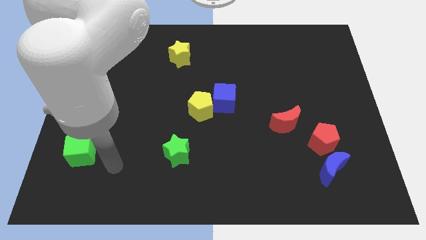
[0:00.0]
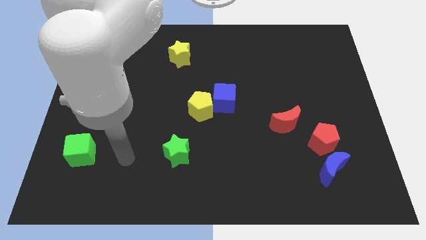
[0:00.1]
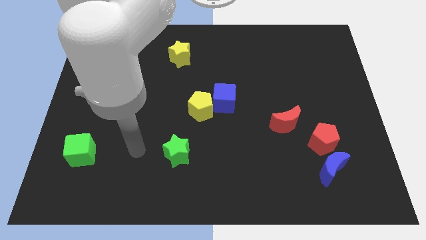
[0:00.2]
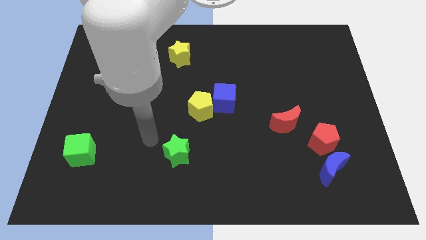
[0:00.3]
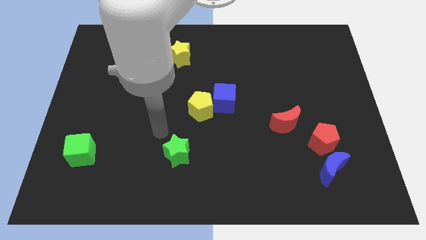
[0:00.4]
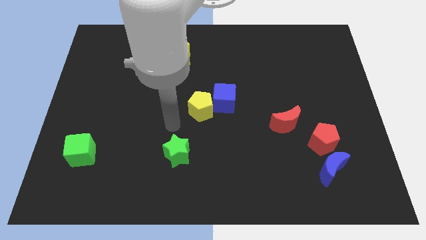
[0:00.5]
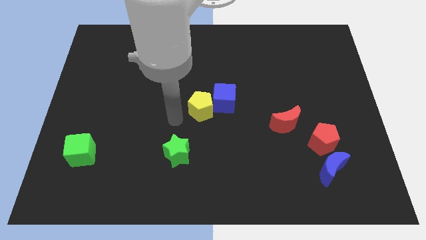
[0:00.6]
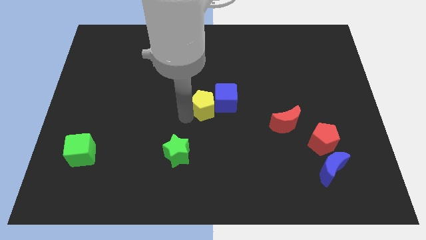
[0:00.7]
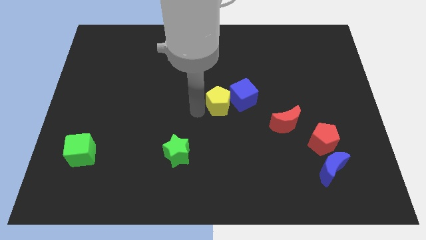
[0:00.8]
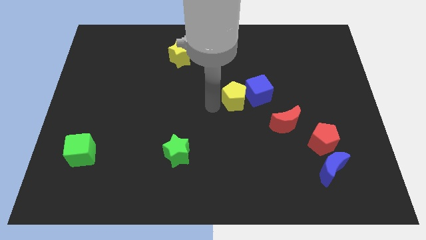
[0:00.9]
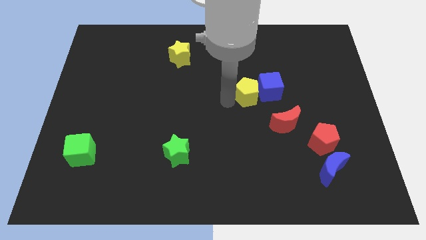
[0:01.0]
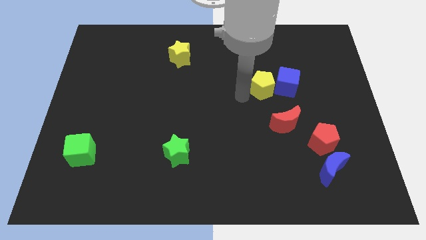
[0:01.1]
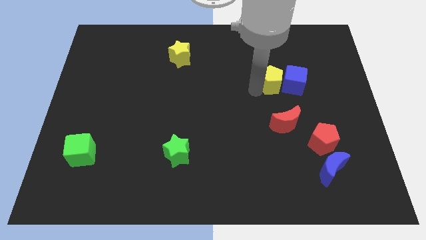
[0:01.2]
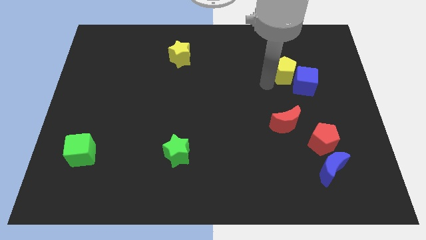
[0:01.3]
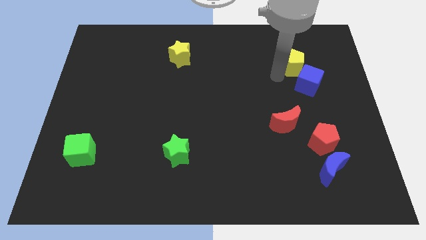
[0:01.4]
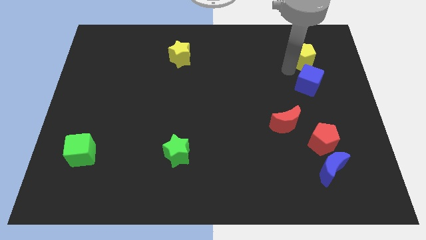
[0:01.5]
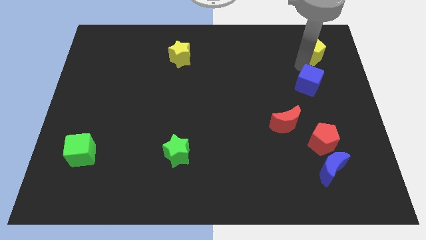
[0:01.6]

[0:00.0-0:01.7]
move the blue cube away from the yellow pentagon

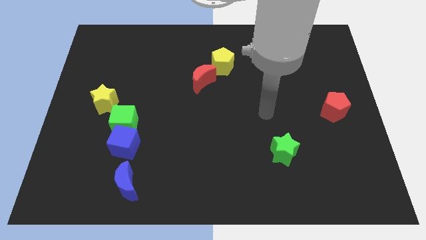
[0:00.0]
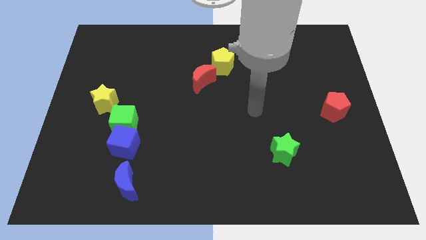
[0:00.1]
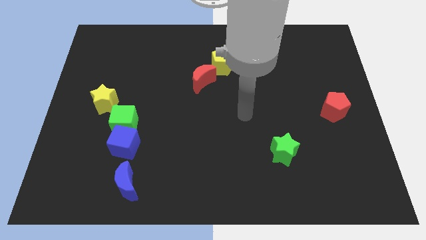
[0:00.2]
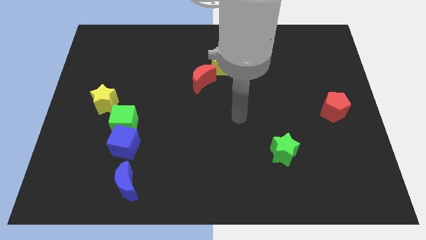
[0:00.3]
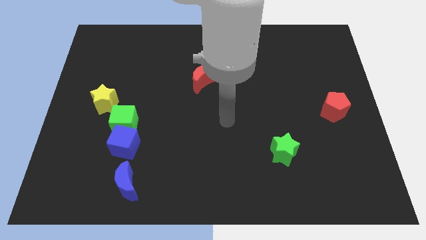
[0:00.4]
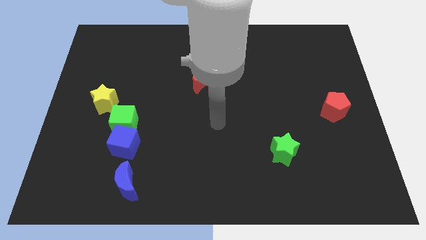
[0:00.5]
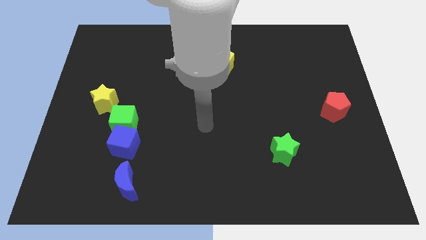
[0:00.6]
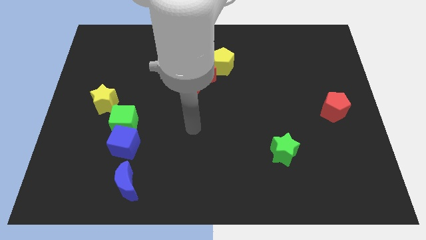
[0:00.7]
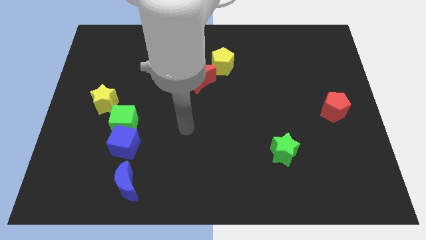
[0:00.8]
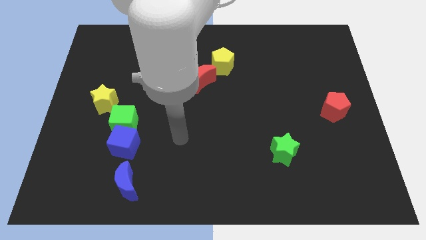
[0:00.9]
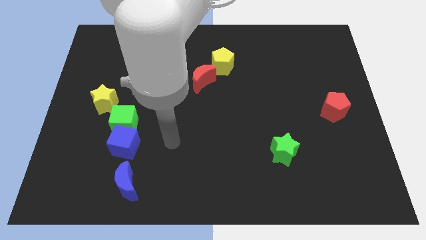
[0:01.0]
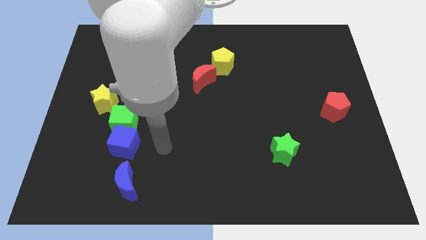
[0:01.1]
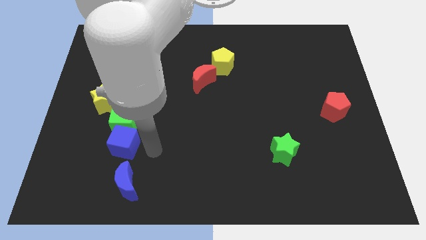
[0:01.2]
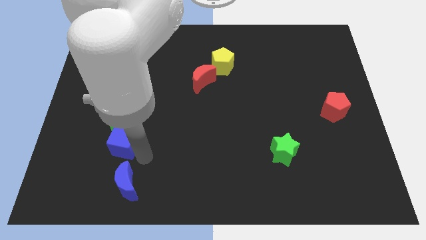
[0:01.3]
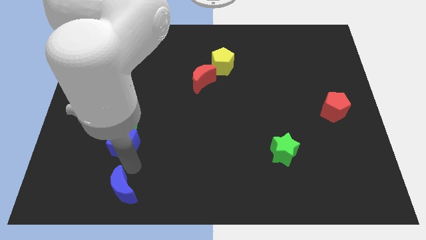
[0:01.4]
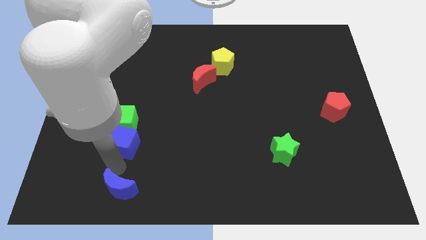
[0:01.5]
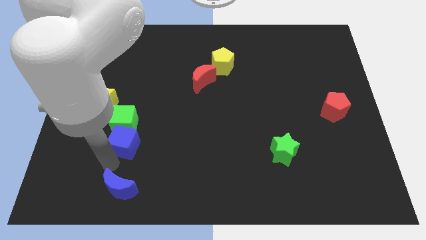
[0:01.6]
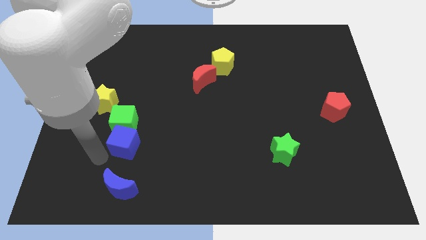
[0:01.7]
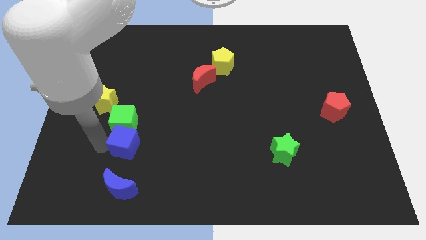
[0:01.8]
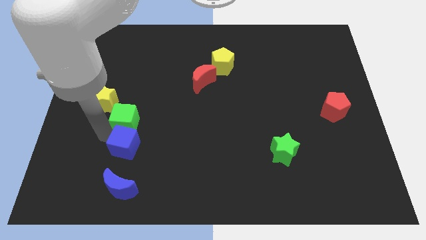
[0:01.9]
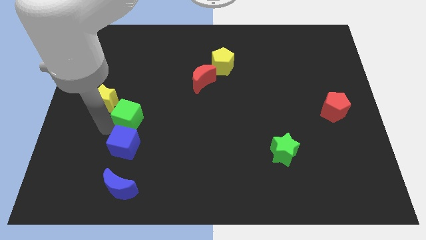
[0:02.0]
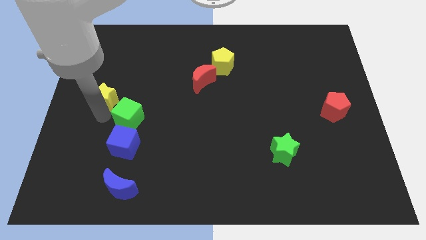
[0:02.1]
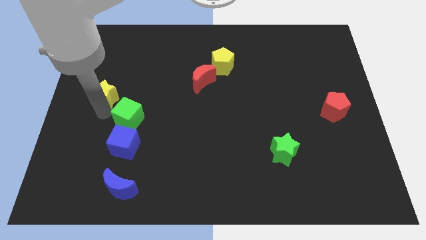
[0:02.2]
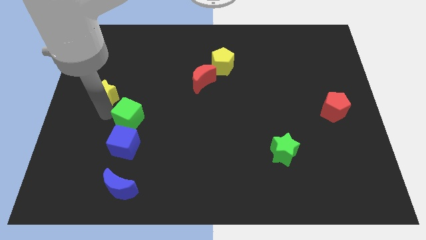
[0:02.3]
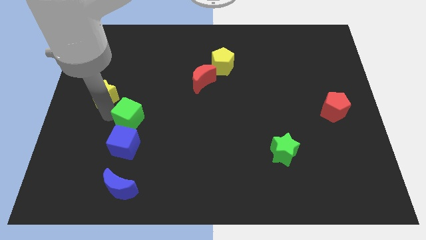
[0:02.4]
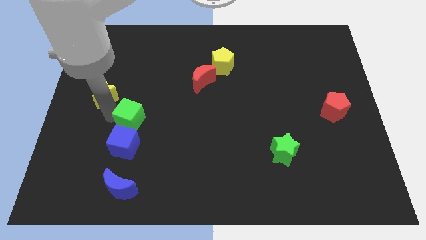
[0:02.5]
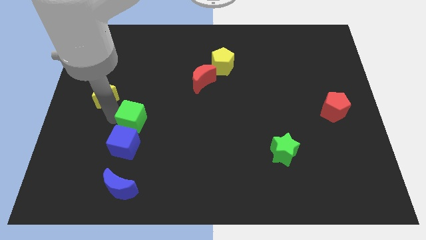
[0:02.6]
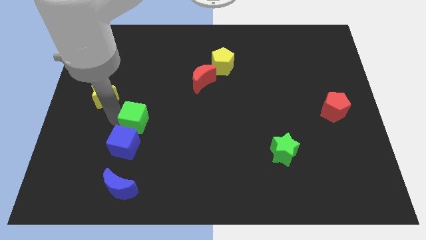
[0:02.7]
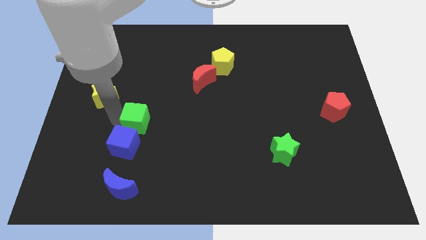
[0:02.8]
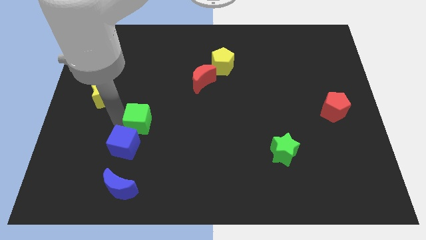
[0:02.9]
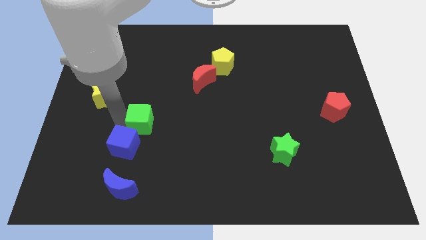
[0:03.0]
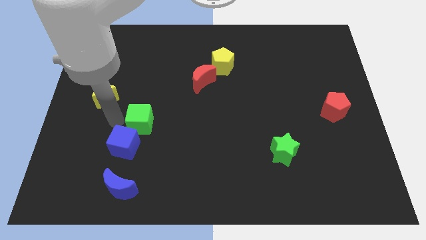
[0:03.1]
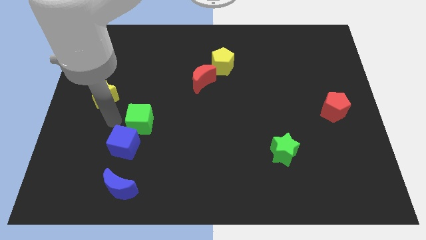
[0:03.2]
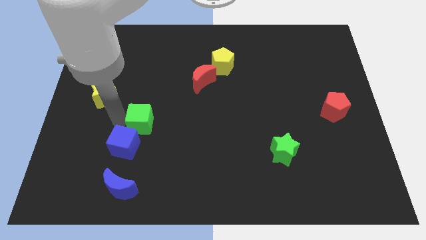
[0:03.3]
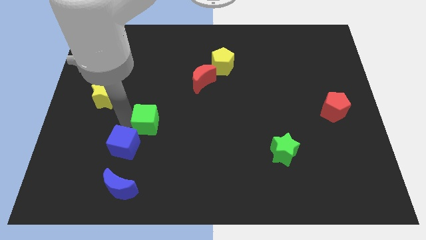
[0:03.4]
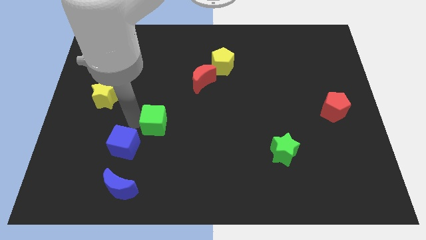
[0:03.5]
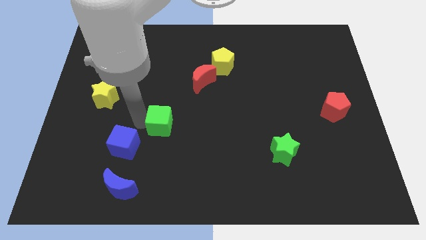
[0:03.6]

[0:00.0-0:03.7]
separate the green cube from the blue cube and yellow star

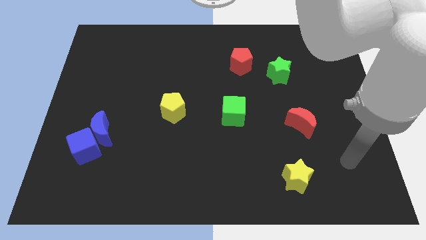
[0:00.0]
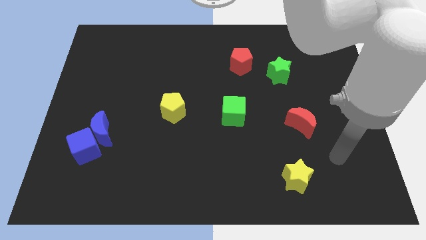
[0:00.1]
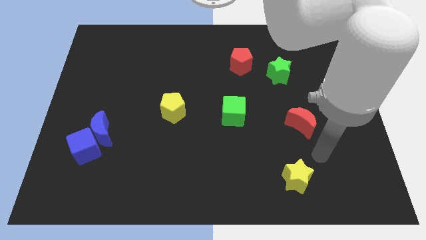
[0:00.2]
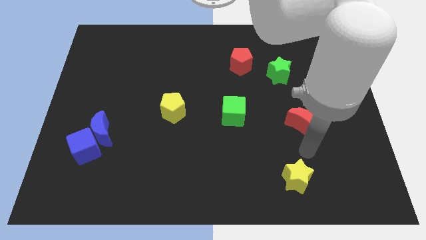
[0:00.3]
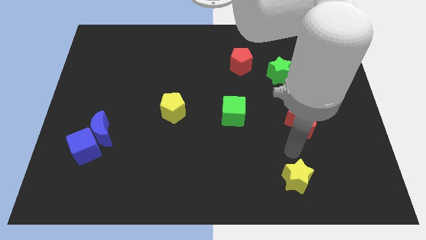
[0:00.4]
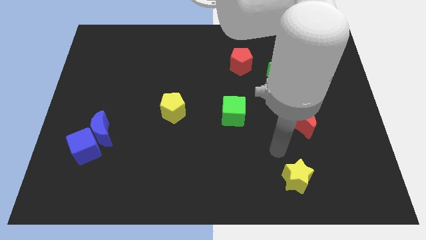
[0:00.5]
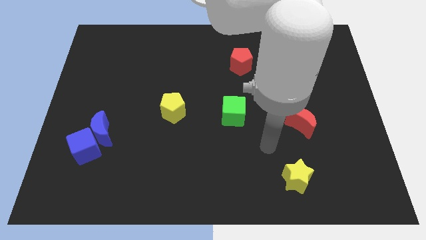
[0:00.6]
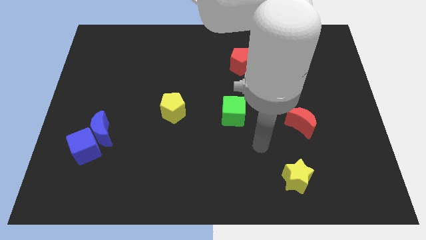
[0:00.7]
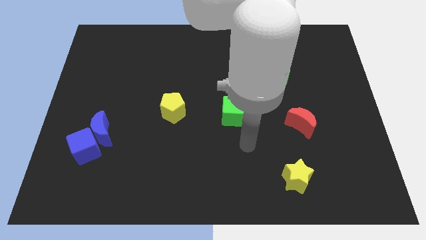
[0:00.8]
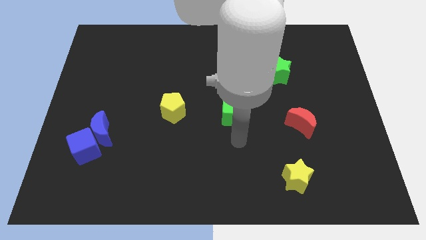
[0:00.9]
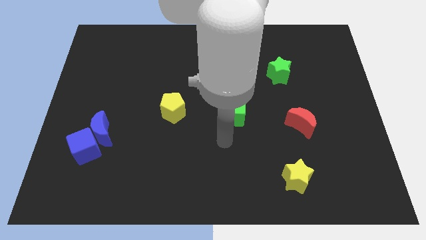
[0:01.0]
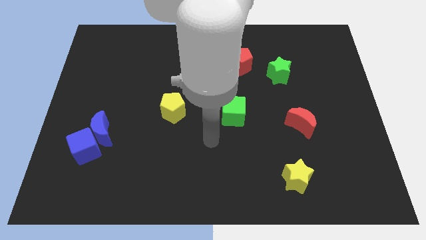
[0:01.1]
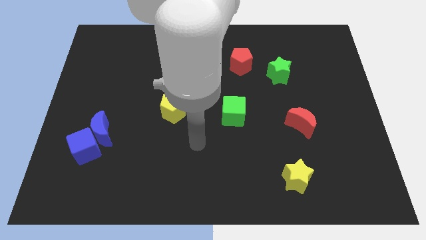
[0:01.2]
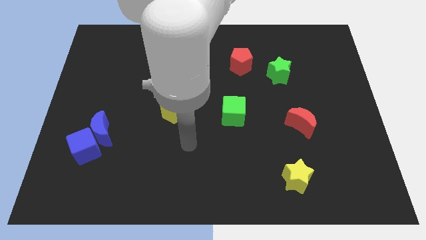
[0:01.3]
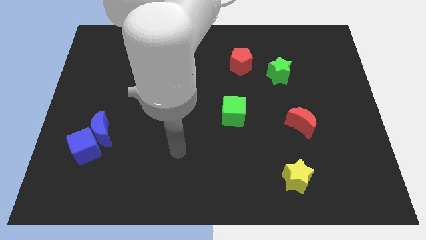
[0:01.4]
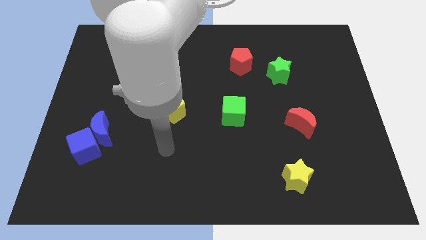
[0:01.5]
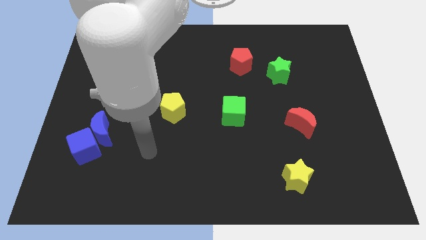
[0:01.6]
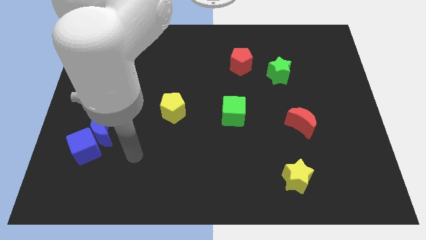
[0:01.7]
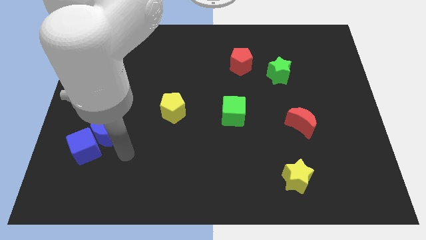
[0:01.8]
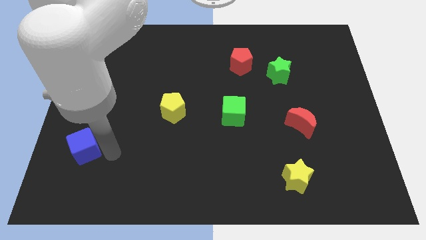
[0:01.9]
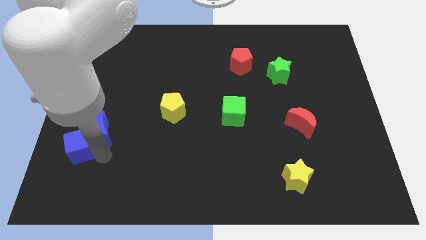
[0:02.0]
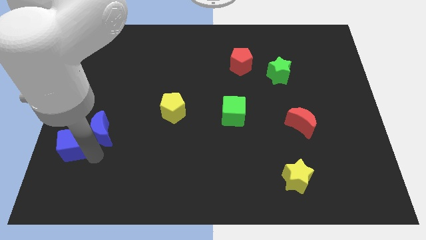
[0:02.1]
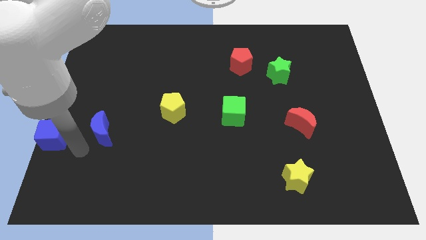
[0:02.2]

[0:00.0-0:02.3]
move the blue moon away from the blue cube

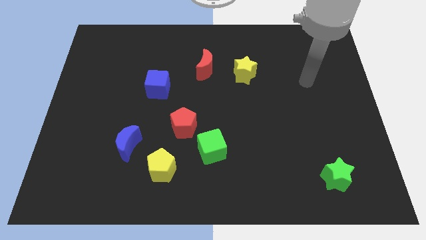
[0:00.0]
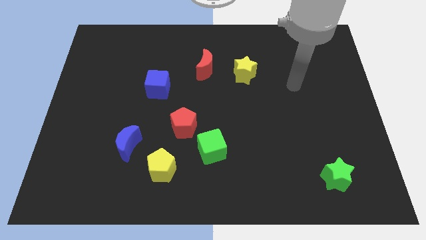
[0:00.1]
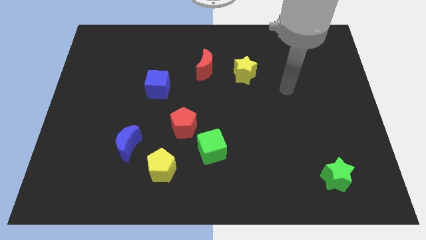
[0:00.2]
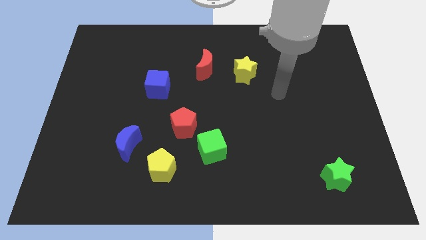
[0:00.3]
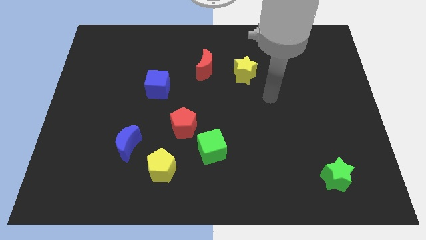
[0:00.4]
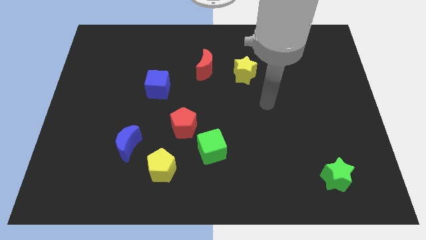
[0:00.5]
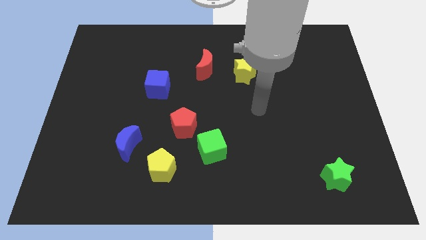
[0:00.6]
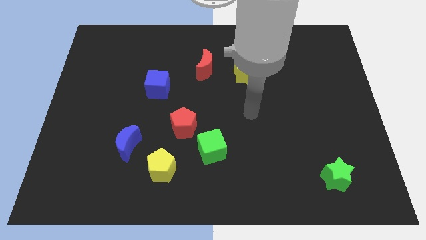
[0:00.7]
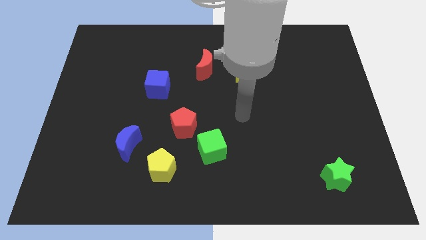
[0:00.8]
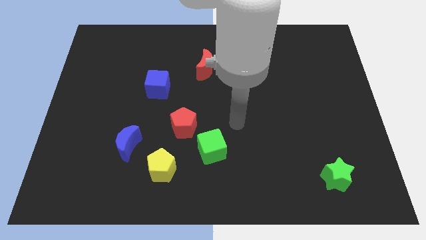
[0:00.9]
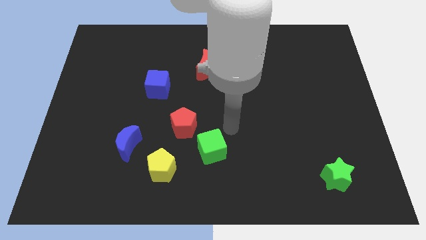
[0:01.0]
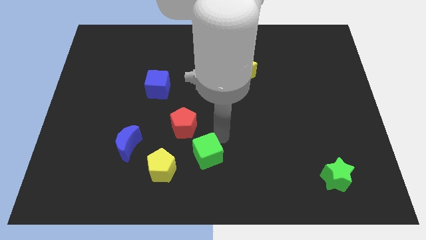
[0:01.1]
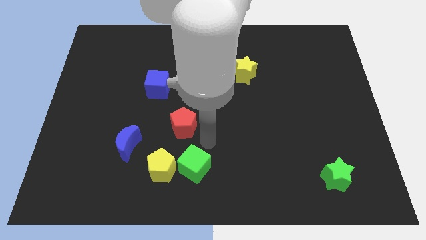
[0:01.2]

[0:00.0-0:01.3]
separate the red pentagon from the green cube

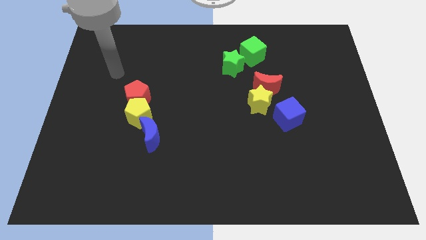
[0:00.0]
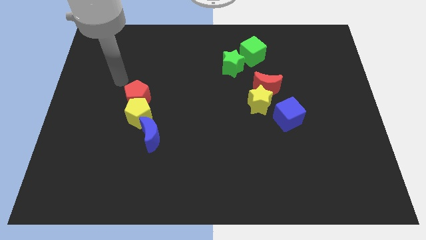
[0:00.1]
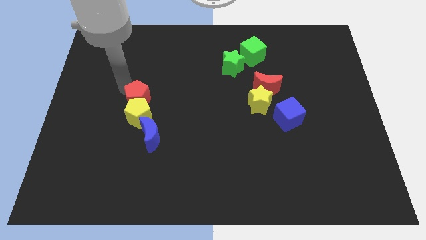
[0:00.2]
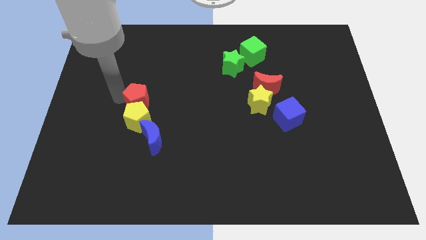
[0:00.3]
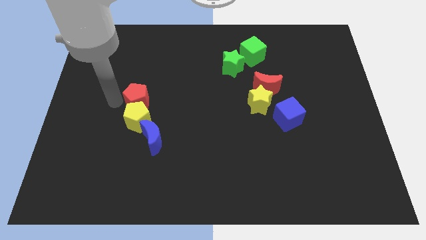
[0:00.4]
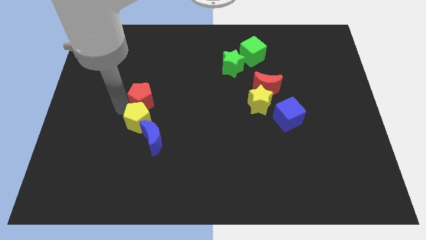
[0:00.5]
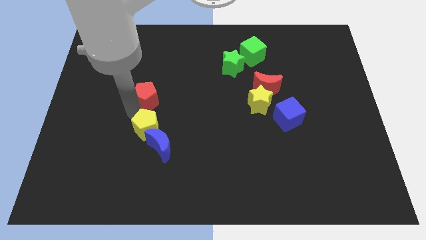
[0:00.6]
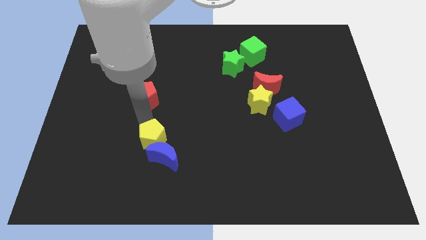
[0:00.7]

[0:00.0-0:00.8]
pull the red pentagon apart from the yellow pentagon
